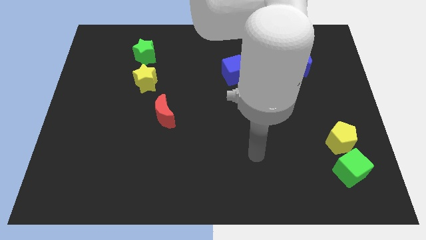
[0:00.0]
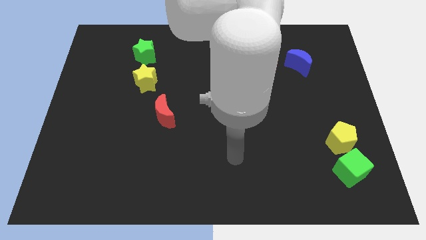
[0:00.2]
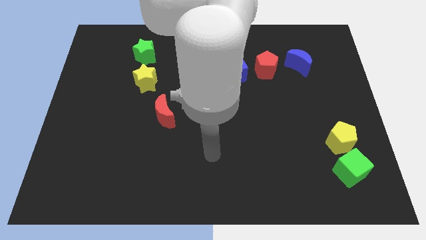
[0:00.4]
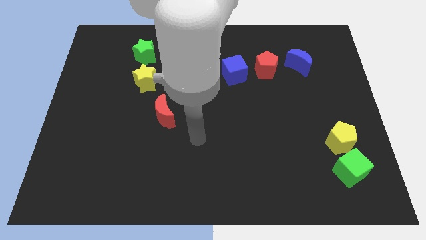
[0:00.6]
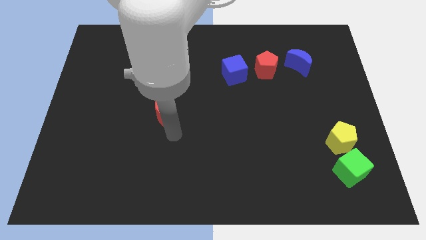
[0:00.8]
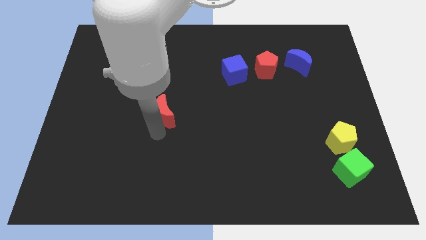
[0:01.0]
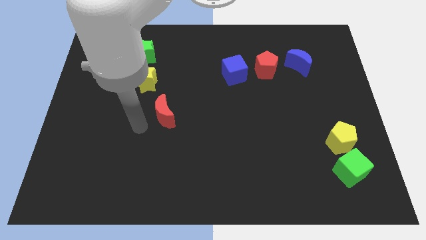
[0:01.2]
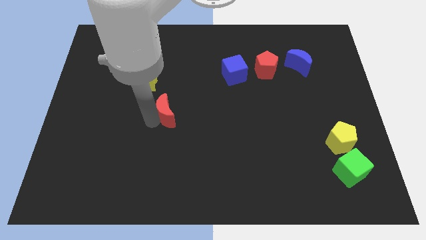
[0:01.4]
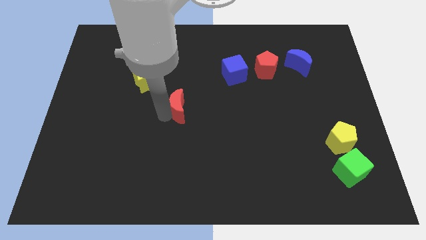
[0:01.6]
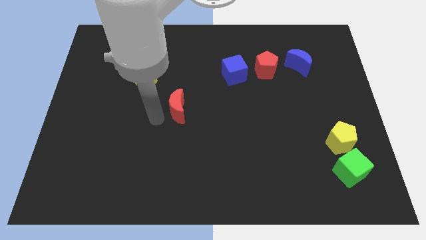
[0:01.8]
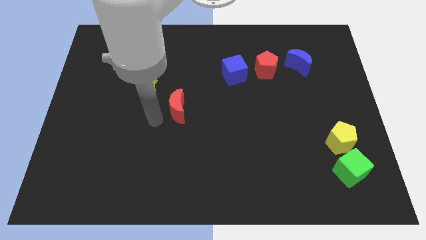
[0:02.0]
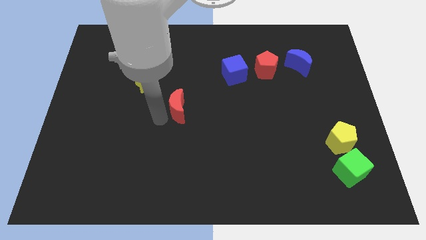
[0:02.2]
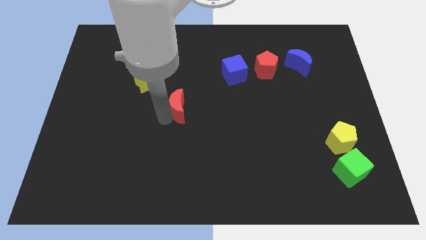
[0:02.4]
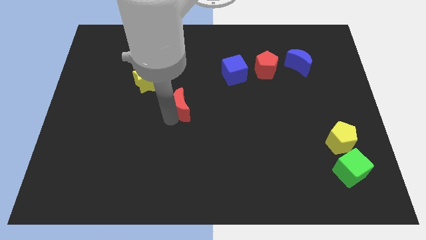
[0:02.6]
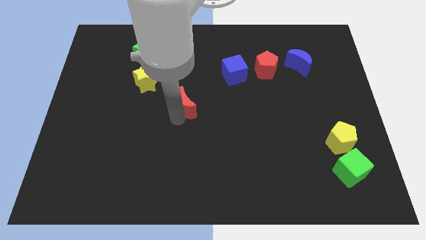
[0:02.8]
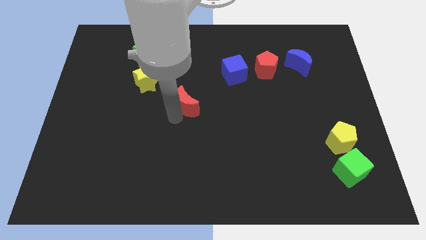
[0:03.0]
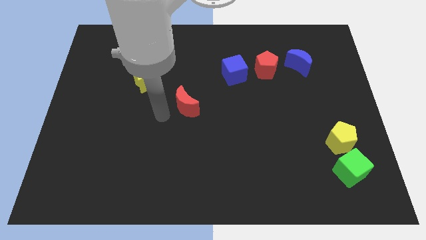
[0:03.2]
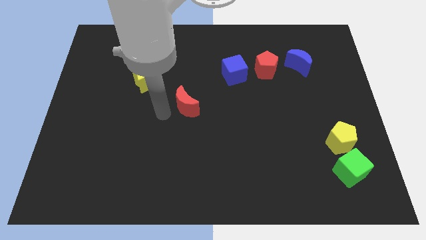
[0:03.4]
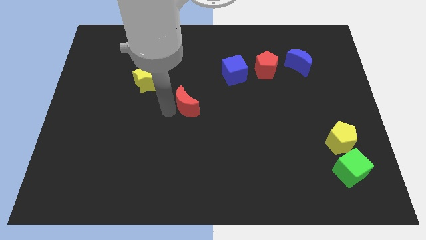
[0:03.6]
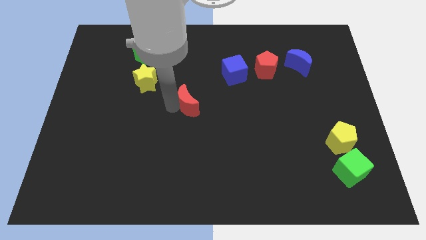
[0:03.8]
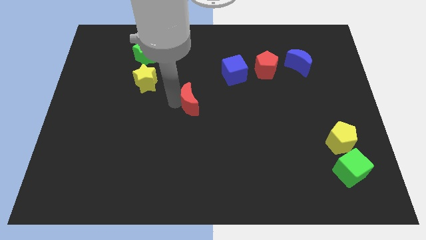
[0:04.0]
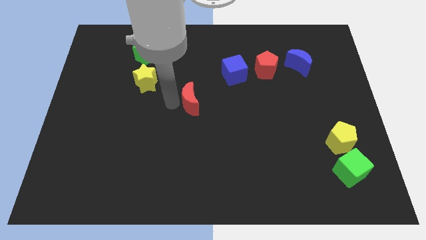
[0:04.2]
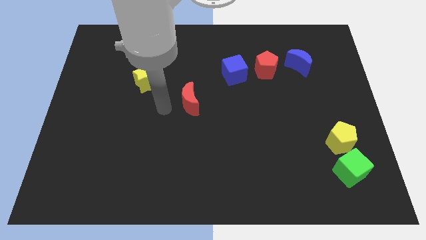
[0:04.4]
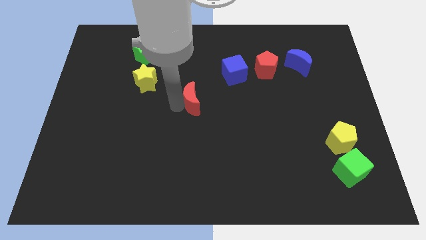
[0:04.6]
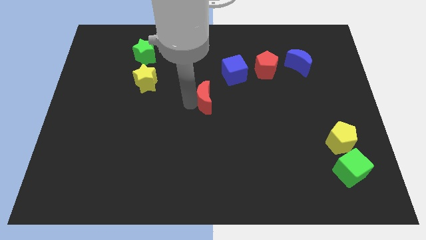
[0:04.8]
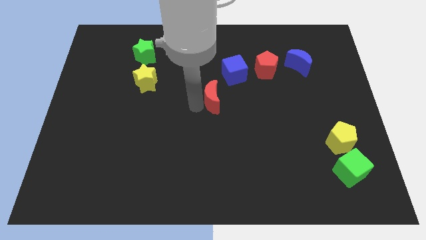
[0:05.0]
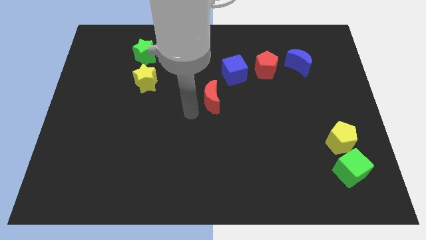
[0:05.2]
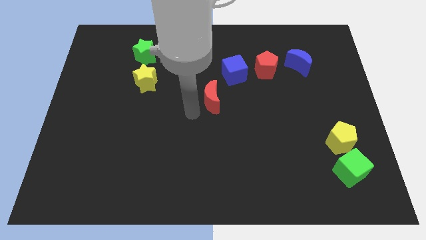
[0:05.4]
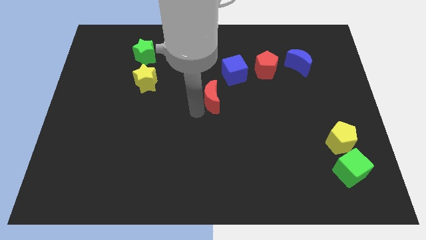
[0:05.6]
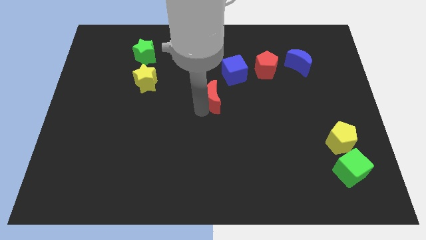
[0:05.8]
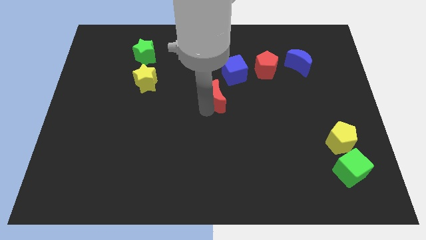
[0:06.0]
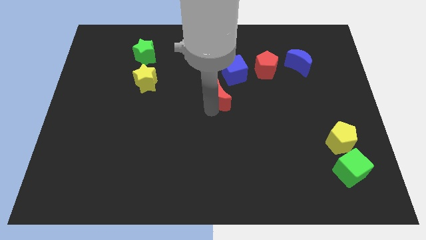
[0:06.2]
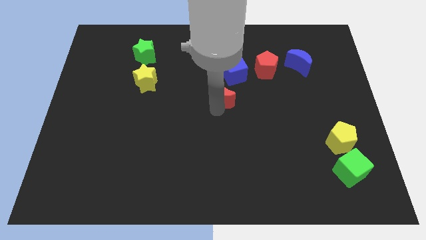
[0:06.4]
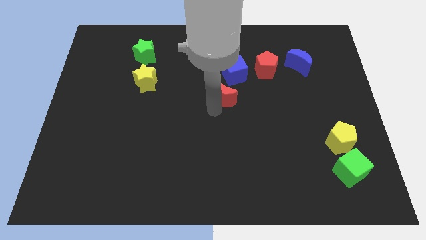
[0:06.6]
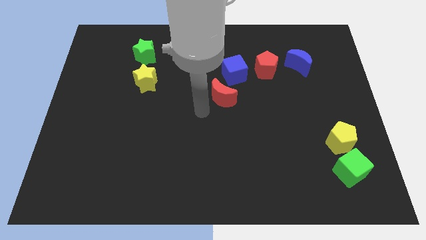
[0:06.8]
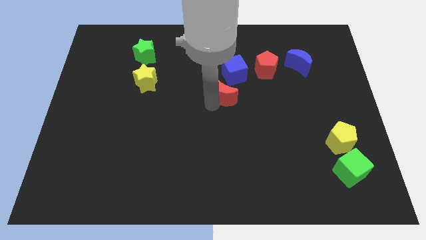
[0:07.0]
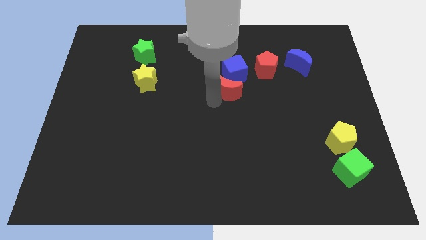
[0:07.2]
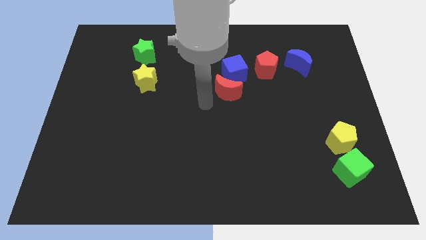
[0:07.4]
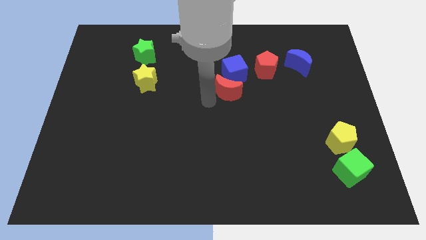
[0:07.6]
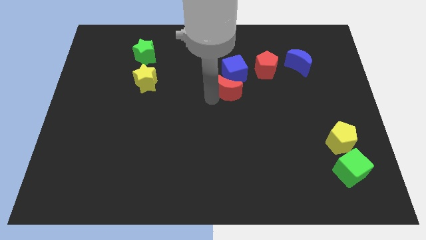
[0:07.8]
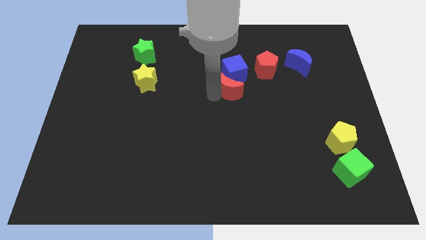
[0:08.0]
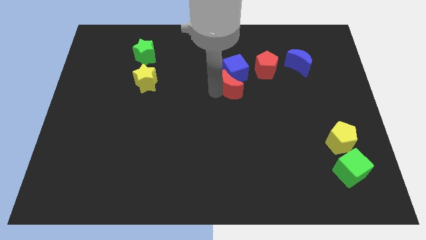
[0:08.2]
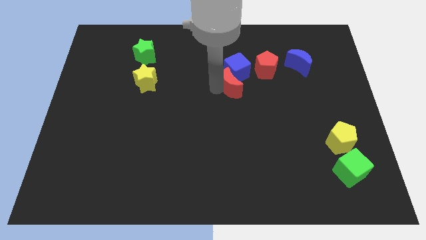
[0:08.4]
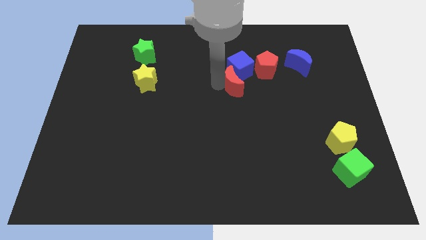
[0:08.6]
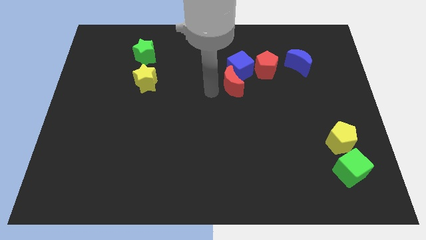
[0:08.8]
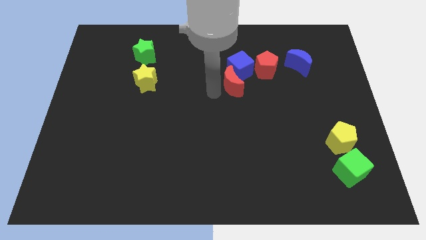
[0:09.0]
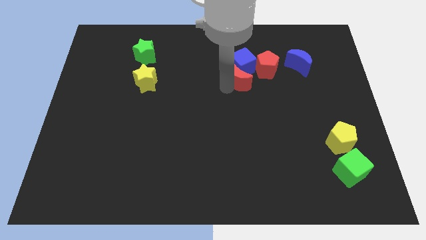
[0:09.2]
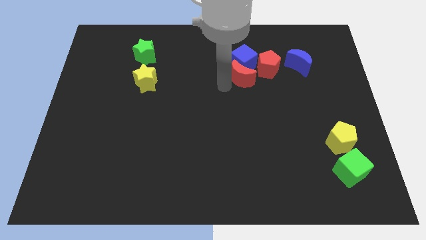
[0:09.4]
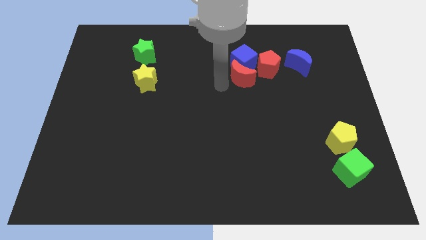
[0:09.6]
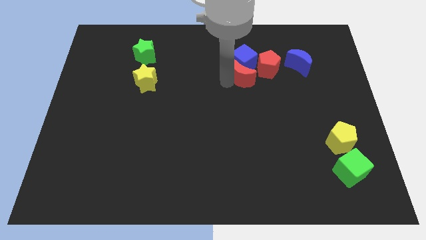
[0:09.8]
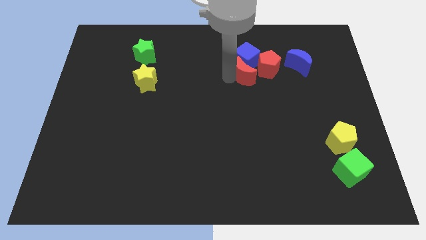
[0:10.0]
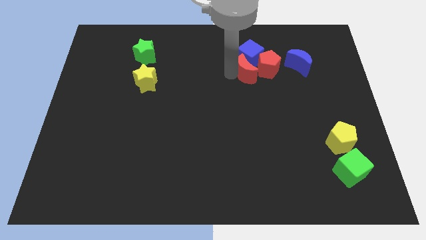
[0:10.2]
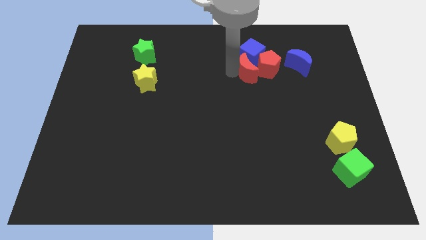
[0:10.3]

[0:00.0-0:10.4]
put the red moon close to the red pentagon

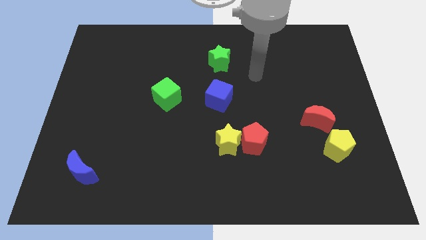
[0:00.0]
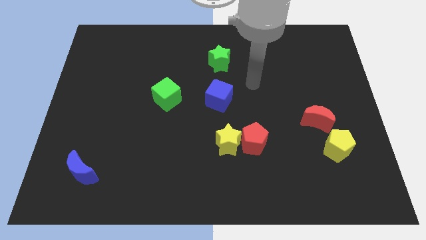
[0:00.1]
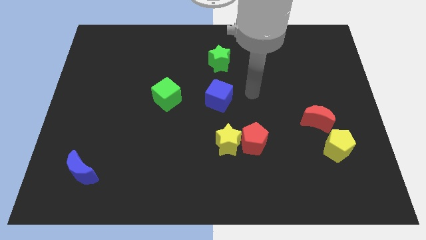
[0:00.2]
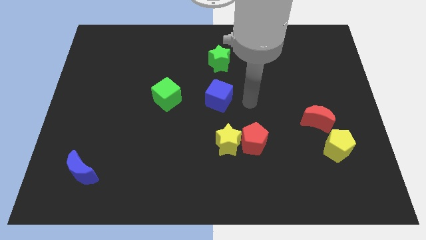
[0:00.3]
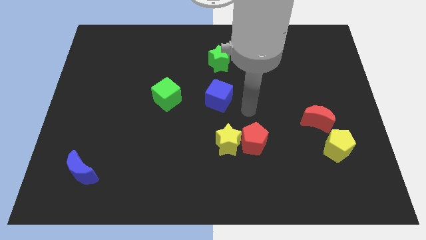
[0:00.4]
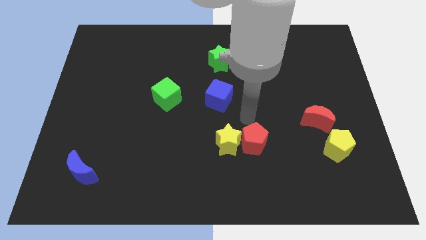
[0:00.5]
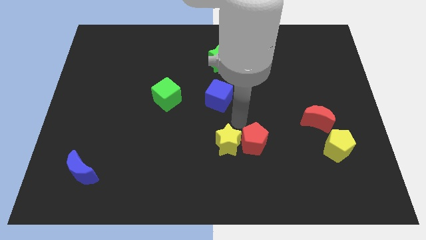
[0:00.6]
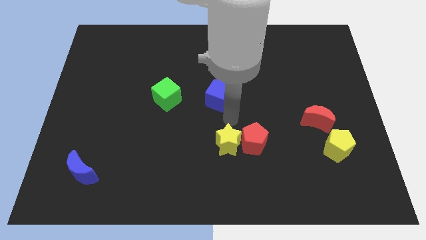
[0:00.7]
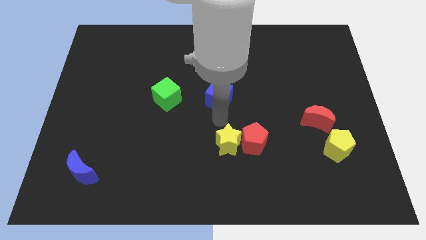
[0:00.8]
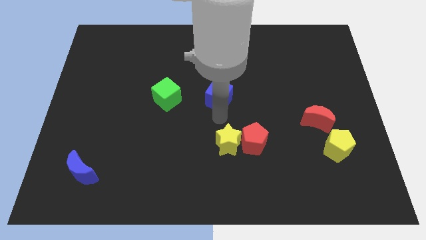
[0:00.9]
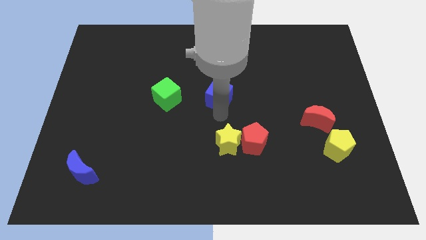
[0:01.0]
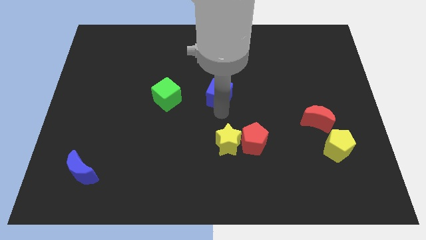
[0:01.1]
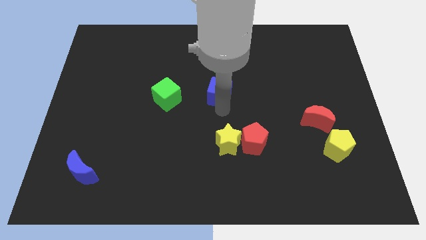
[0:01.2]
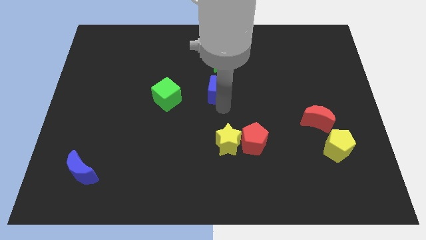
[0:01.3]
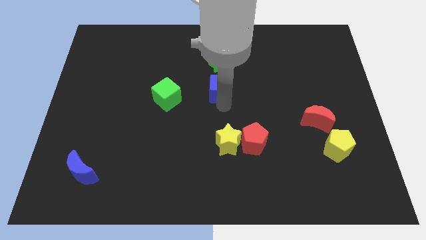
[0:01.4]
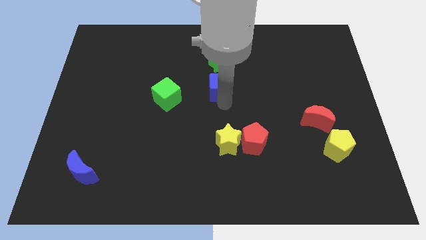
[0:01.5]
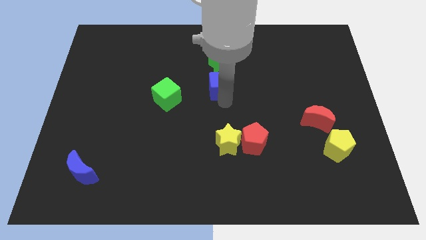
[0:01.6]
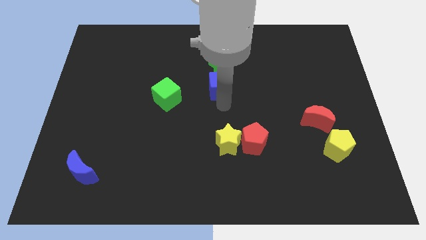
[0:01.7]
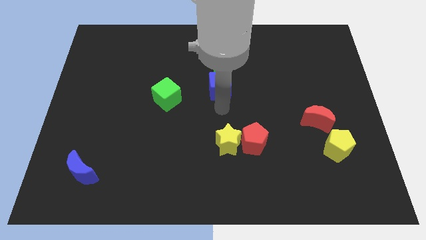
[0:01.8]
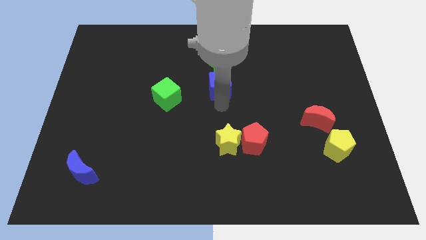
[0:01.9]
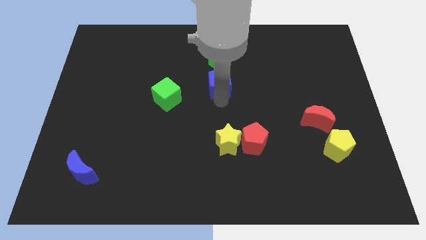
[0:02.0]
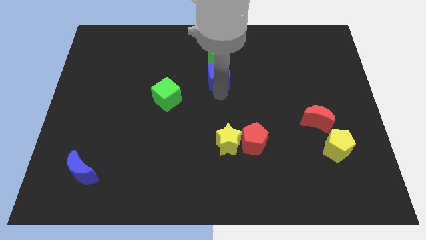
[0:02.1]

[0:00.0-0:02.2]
put the blue cube to the green star

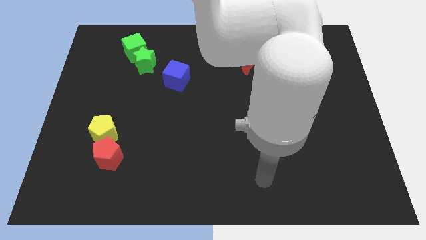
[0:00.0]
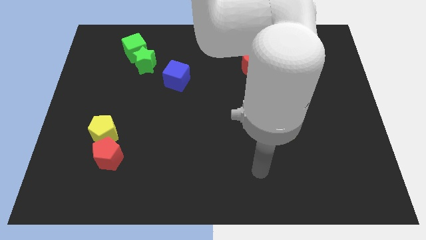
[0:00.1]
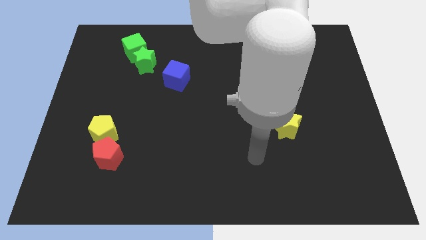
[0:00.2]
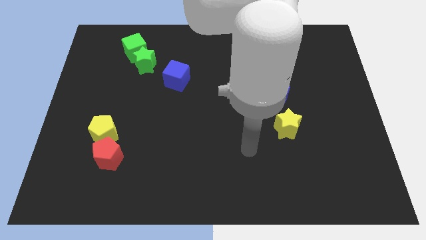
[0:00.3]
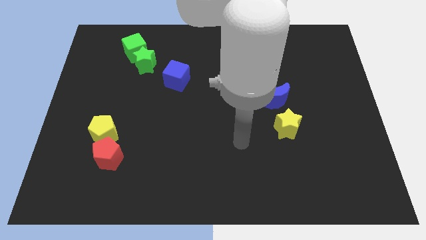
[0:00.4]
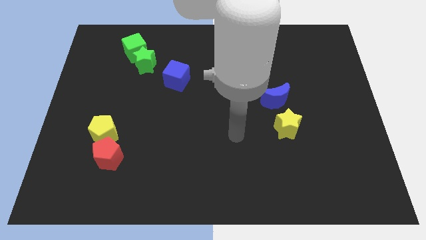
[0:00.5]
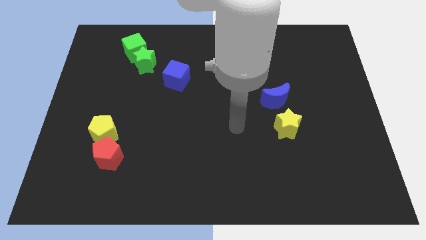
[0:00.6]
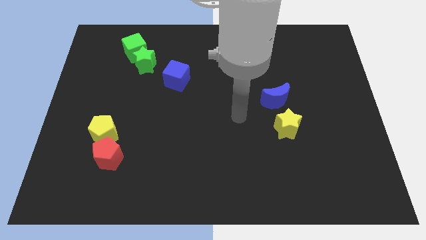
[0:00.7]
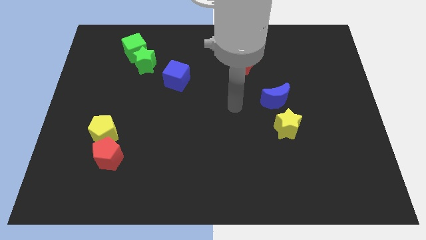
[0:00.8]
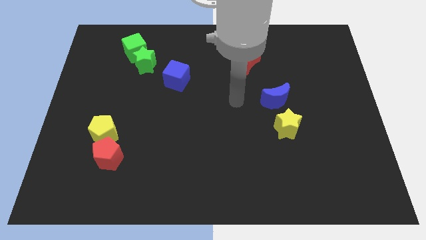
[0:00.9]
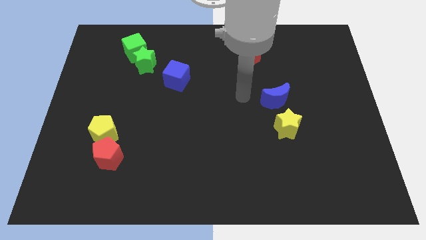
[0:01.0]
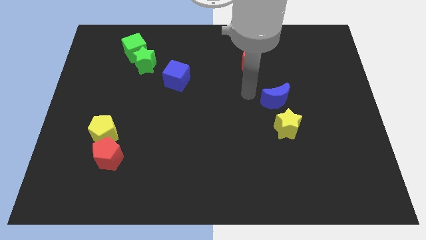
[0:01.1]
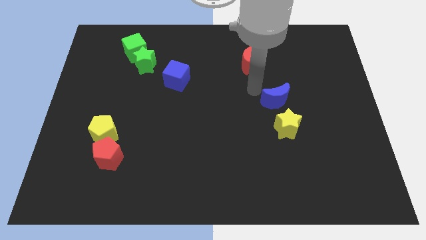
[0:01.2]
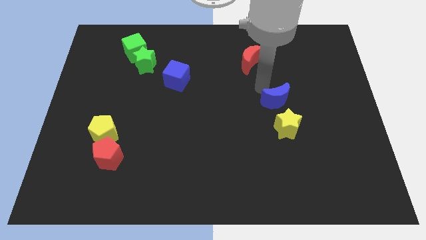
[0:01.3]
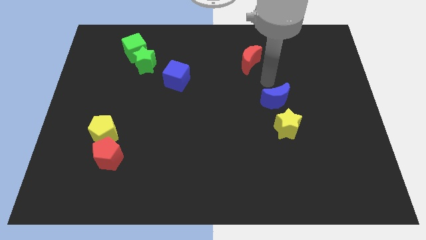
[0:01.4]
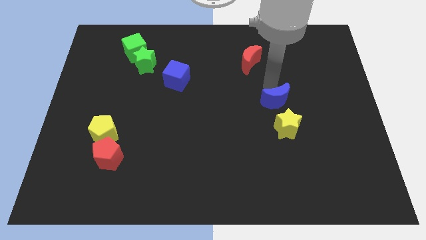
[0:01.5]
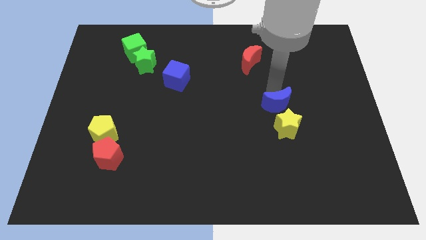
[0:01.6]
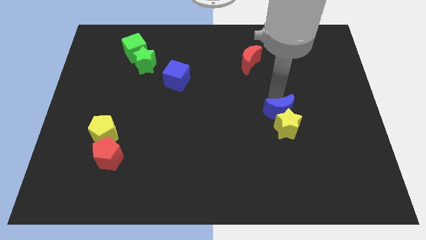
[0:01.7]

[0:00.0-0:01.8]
push the blue moon towards the yellow star
